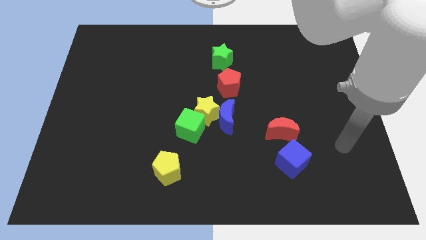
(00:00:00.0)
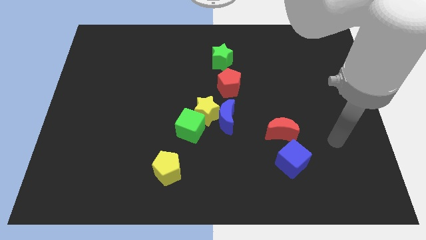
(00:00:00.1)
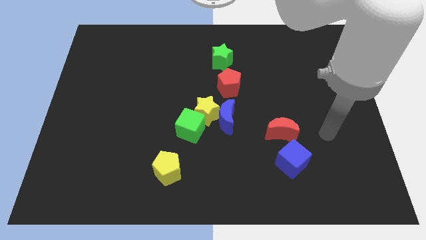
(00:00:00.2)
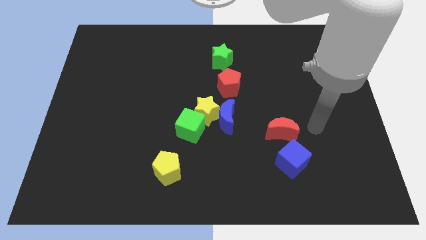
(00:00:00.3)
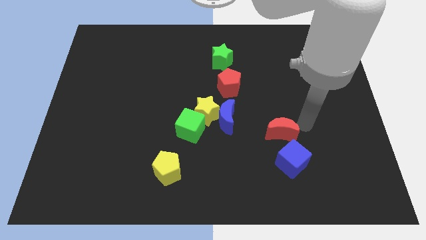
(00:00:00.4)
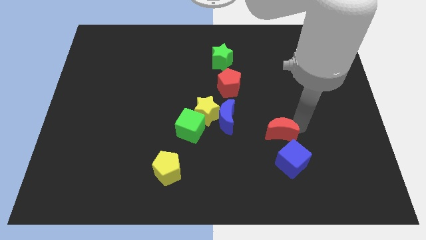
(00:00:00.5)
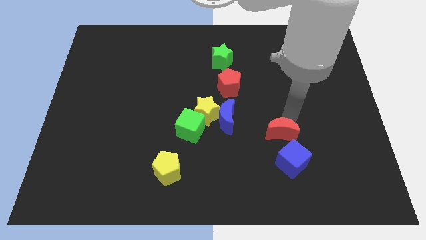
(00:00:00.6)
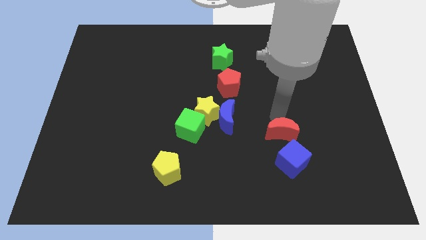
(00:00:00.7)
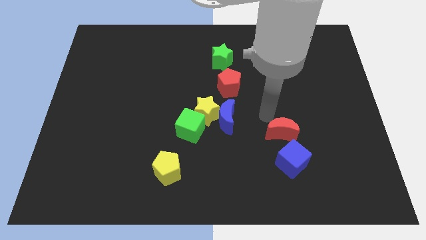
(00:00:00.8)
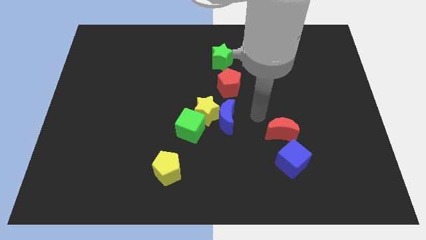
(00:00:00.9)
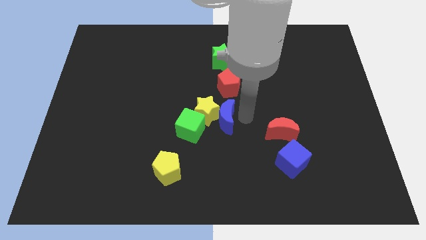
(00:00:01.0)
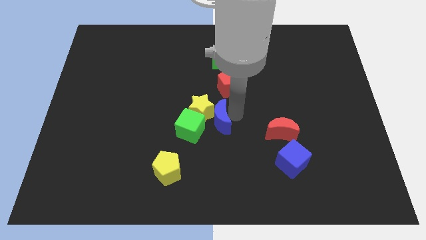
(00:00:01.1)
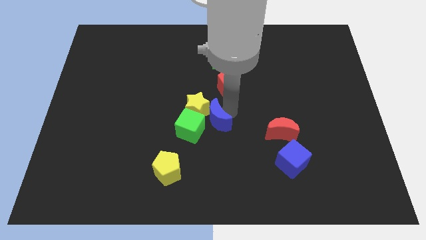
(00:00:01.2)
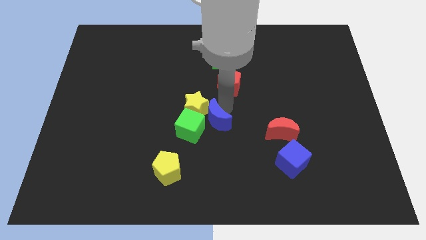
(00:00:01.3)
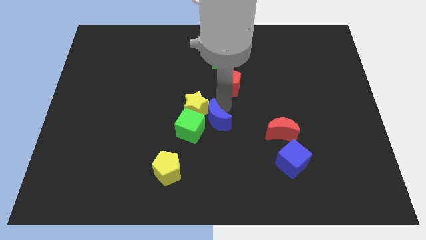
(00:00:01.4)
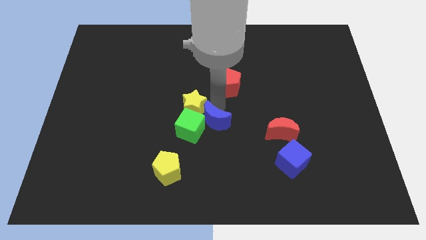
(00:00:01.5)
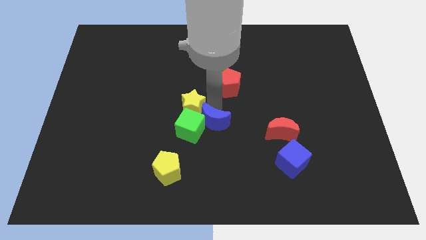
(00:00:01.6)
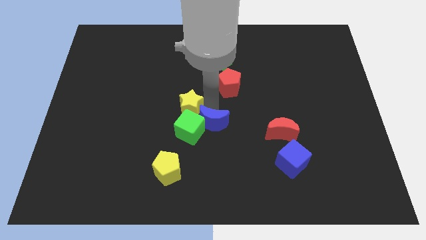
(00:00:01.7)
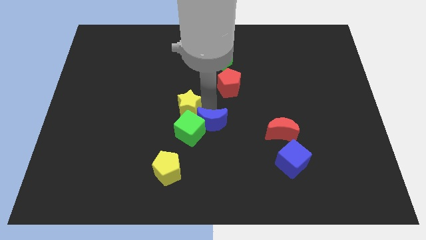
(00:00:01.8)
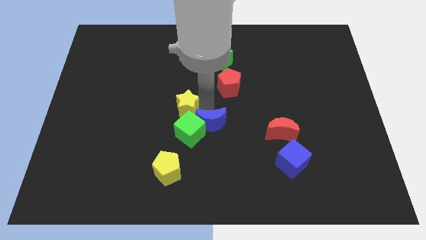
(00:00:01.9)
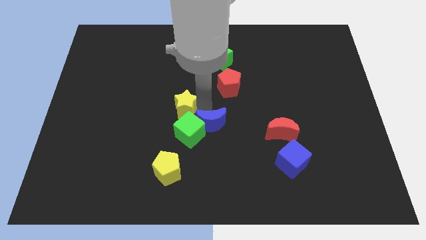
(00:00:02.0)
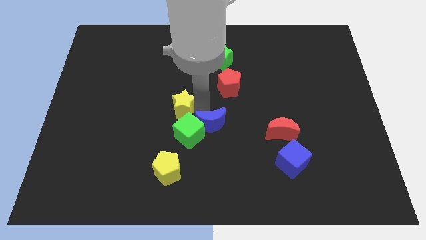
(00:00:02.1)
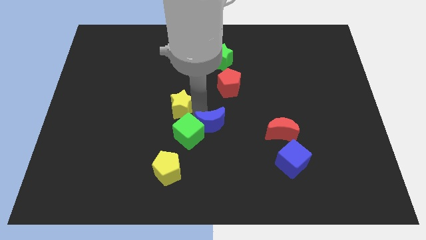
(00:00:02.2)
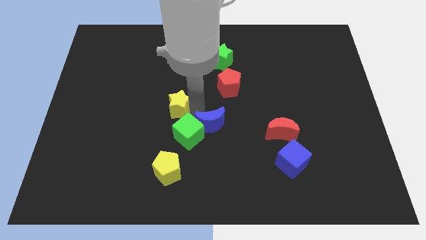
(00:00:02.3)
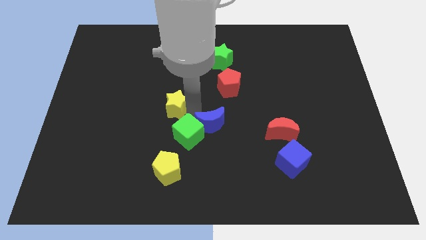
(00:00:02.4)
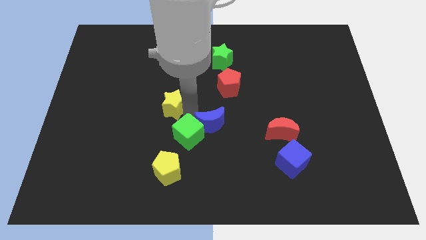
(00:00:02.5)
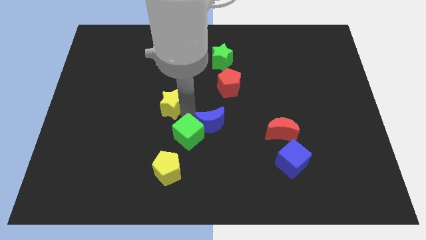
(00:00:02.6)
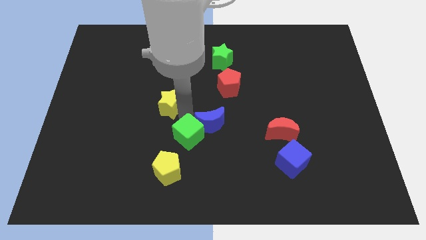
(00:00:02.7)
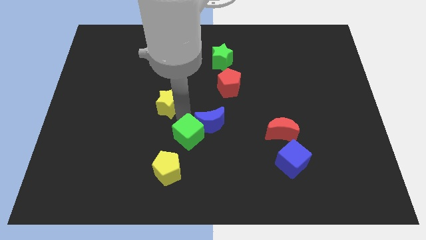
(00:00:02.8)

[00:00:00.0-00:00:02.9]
move the yellow star away from the blue moon, green cube, and red pentagon

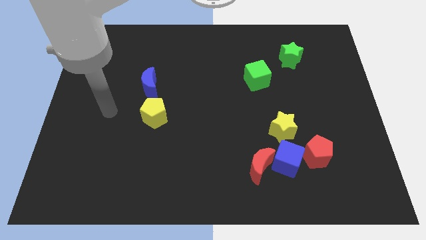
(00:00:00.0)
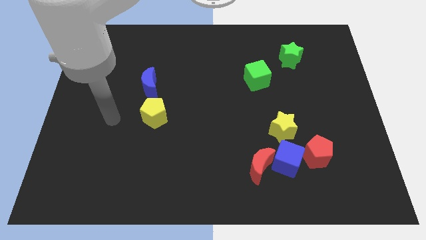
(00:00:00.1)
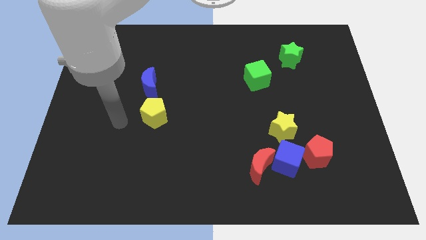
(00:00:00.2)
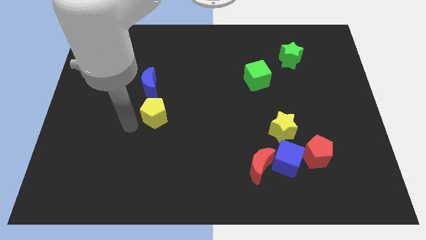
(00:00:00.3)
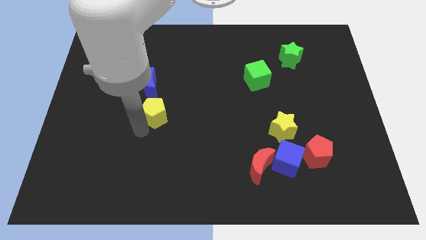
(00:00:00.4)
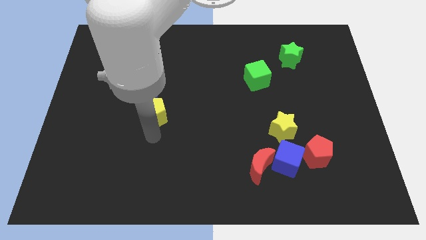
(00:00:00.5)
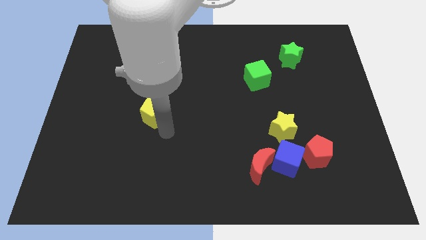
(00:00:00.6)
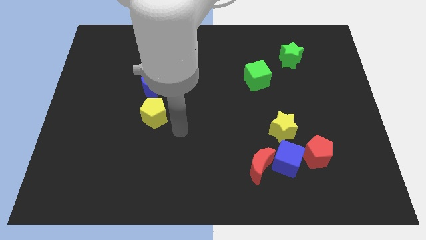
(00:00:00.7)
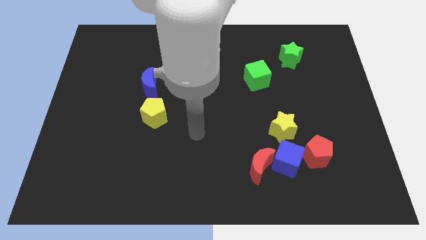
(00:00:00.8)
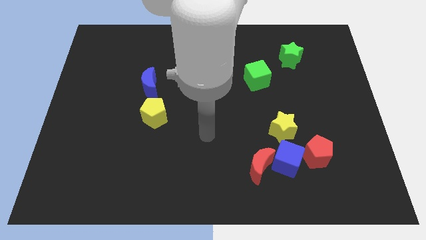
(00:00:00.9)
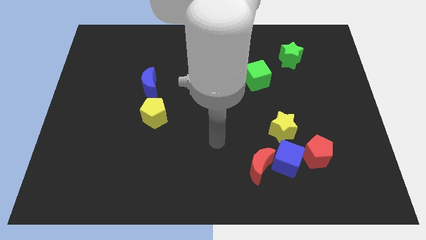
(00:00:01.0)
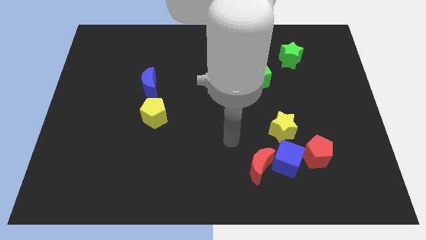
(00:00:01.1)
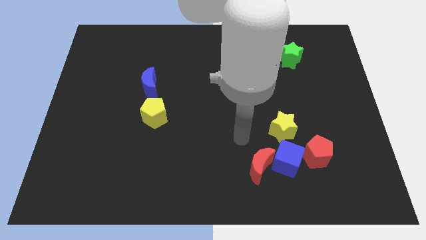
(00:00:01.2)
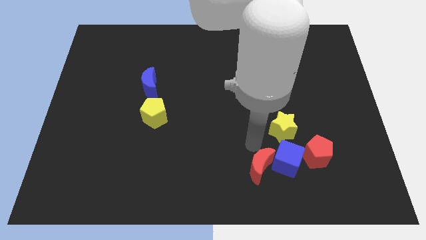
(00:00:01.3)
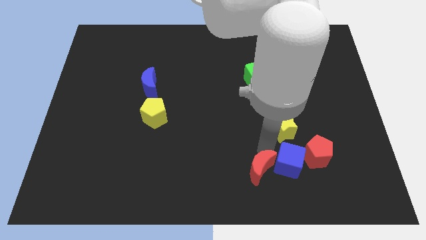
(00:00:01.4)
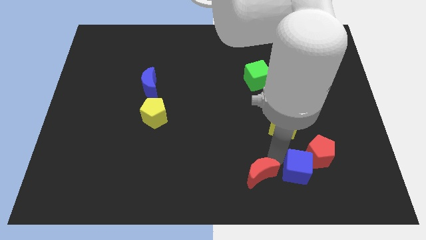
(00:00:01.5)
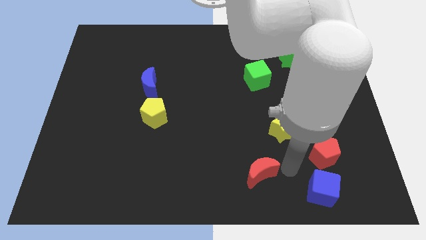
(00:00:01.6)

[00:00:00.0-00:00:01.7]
pull the red moon apart from the blue cube

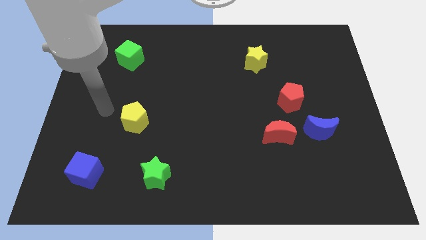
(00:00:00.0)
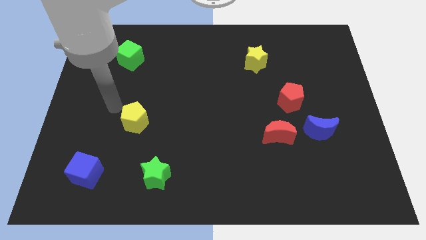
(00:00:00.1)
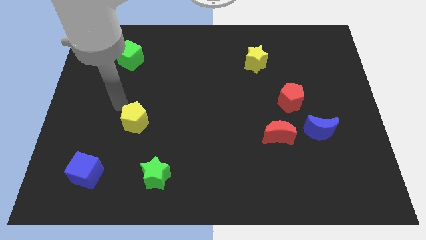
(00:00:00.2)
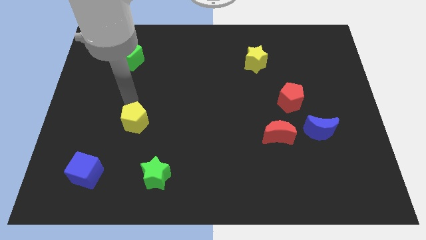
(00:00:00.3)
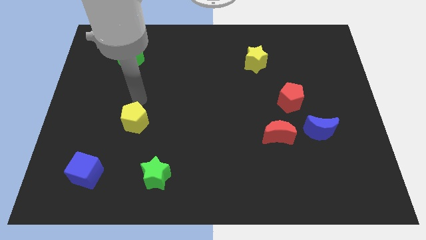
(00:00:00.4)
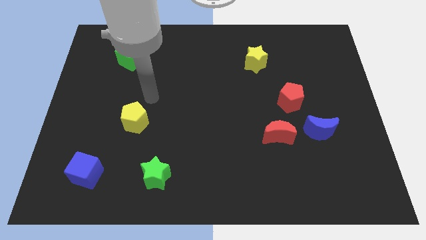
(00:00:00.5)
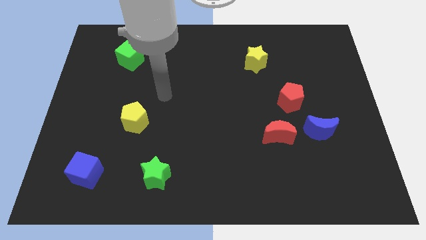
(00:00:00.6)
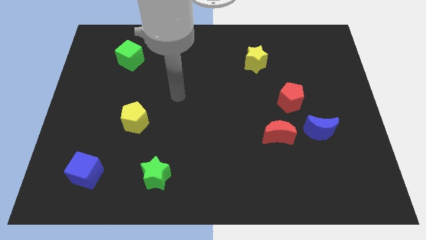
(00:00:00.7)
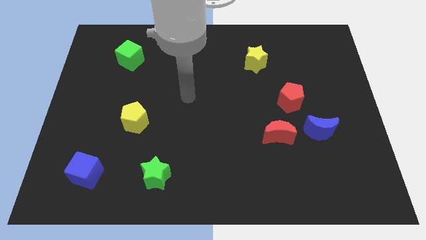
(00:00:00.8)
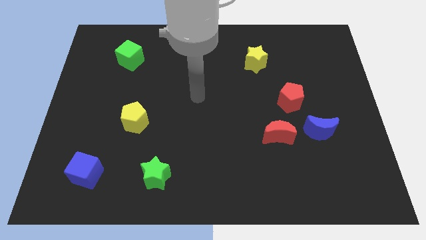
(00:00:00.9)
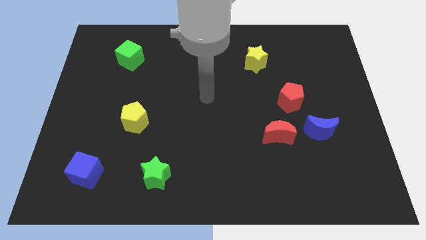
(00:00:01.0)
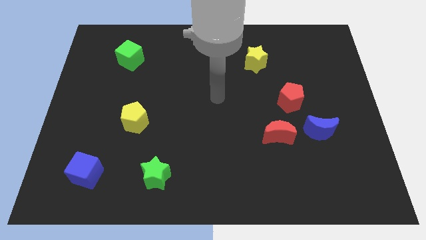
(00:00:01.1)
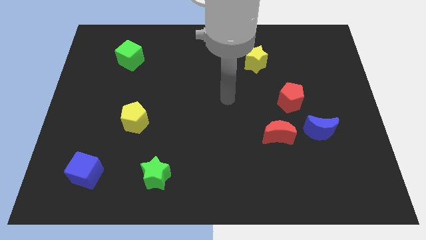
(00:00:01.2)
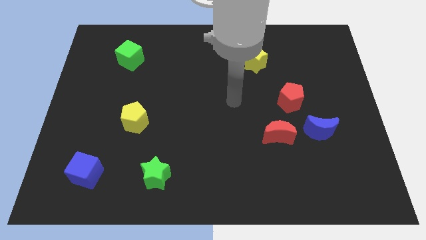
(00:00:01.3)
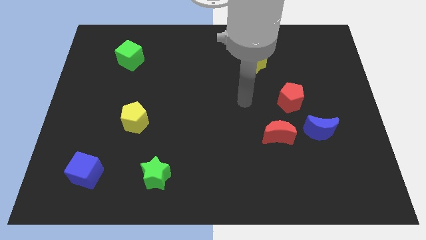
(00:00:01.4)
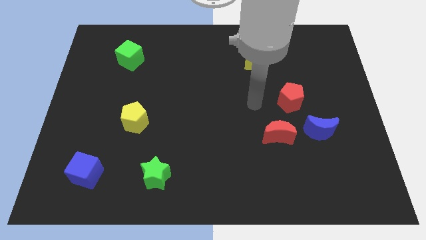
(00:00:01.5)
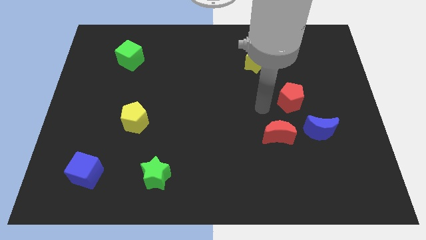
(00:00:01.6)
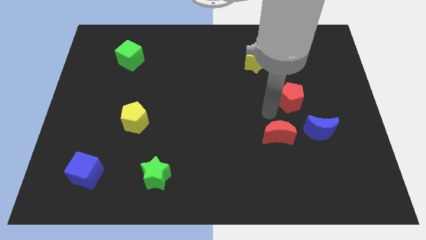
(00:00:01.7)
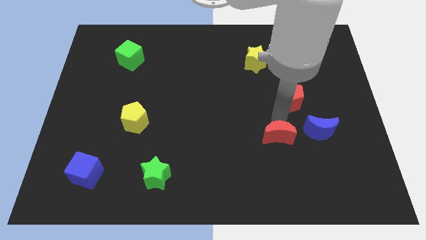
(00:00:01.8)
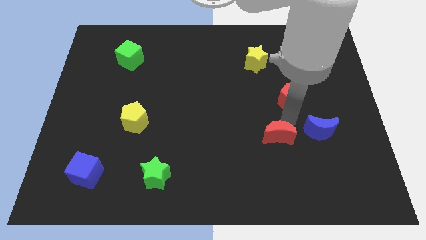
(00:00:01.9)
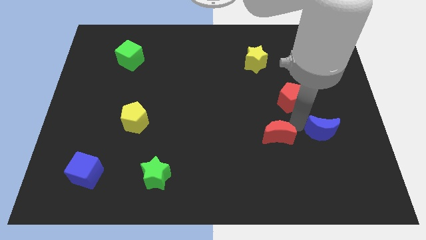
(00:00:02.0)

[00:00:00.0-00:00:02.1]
move the red moon away from the blue moon

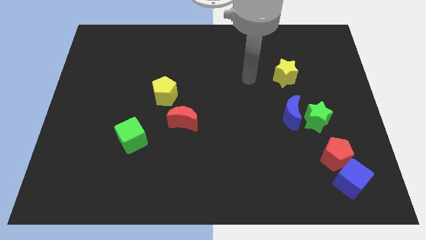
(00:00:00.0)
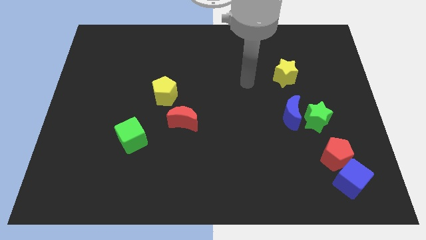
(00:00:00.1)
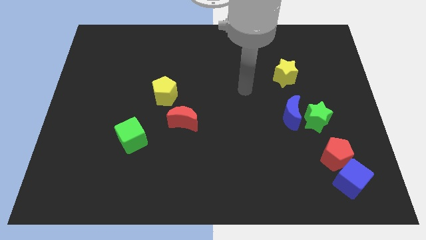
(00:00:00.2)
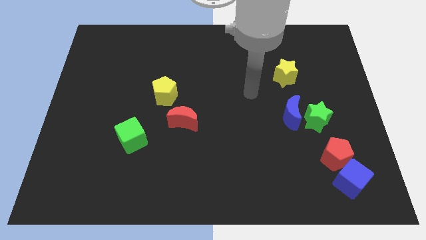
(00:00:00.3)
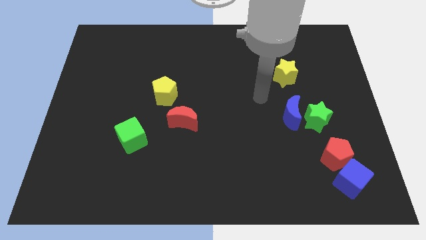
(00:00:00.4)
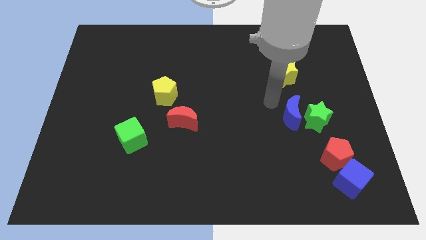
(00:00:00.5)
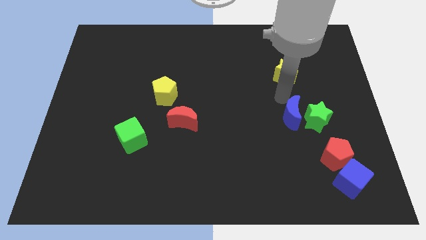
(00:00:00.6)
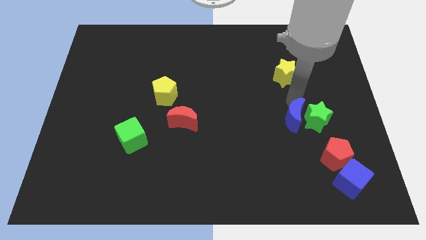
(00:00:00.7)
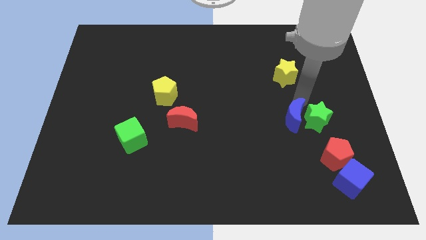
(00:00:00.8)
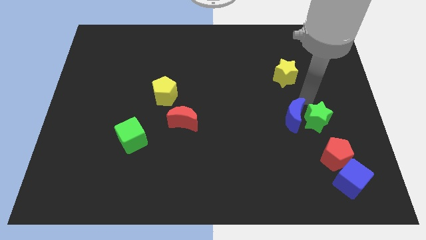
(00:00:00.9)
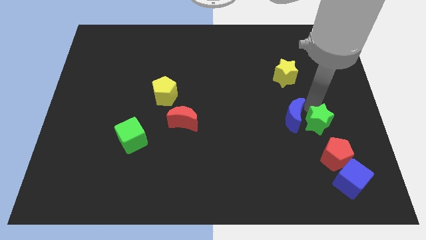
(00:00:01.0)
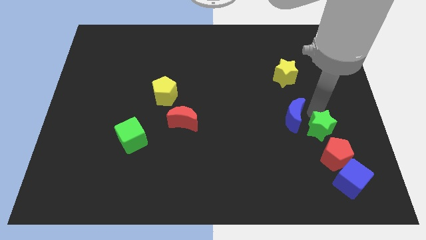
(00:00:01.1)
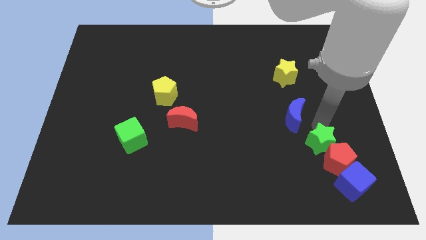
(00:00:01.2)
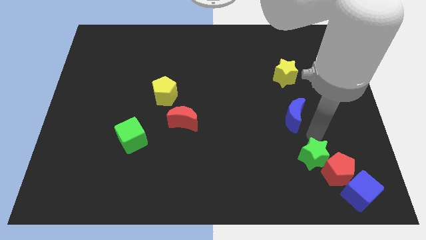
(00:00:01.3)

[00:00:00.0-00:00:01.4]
separate the blue moon from the green star

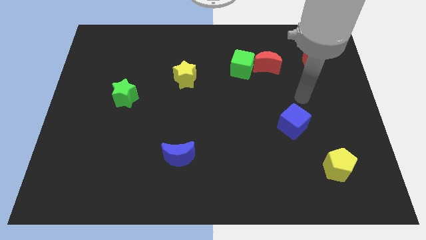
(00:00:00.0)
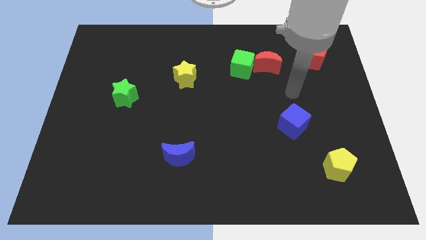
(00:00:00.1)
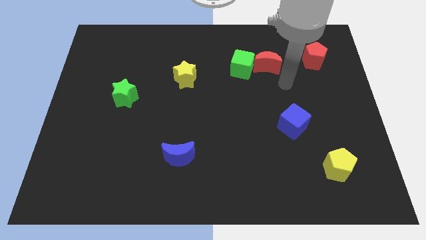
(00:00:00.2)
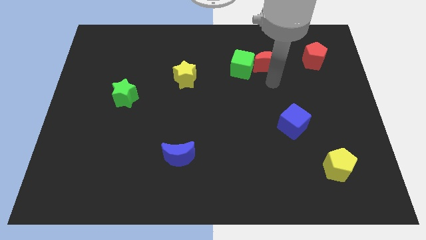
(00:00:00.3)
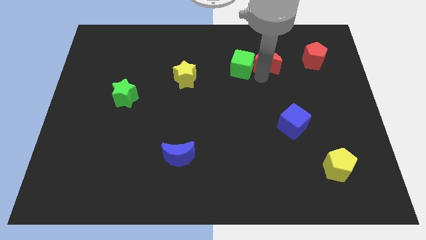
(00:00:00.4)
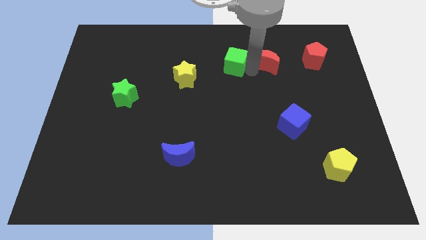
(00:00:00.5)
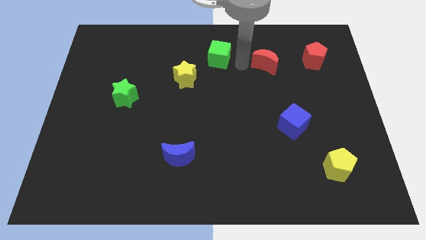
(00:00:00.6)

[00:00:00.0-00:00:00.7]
pull the red moon apart from the green cube

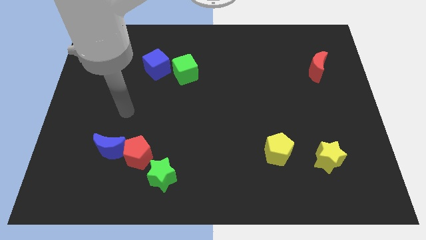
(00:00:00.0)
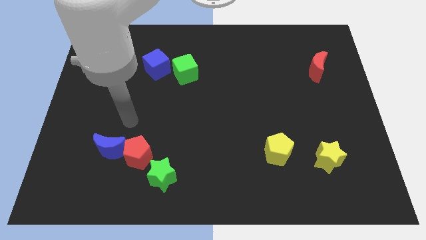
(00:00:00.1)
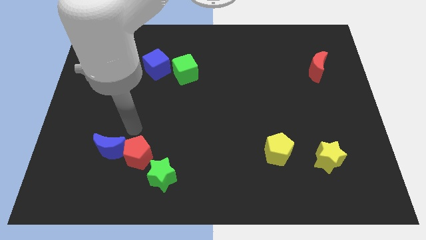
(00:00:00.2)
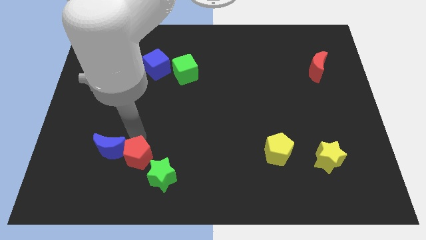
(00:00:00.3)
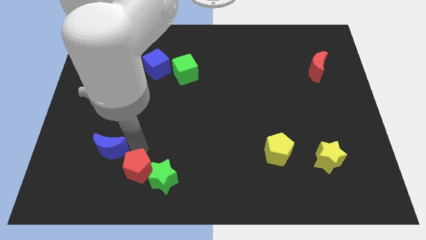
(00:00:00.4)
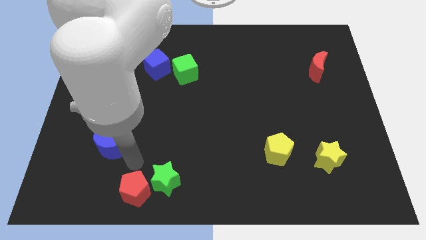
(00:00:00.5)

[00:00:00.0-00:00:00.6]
pull the blue moon apart from the red pentagon
